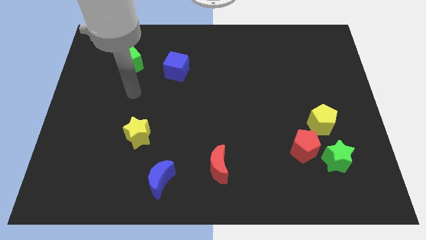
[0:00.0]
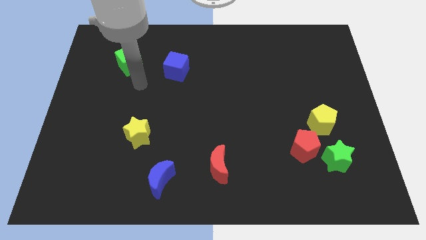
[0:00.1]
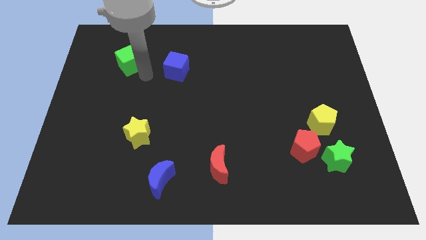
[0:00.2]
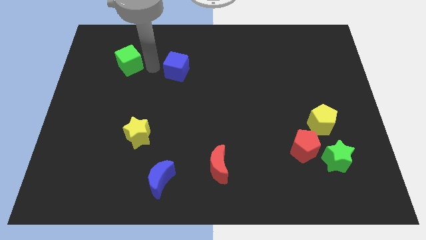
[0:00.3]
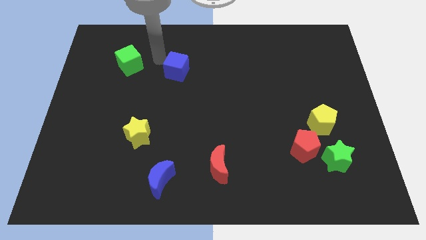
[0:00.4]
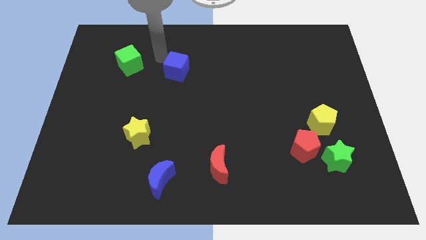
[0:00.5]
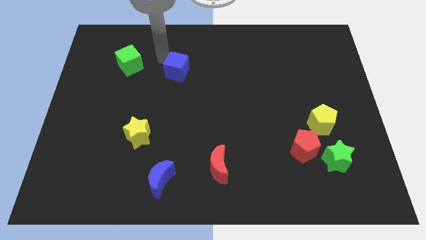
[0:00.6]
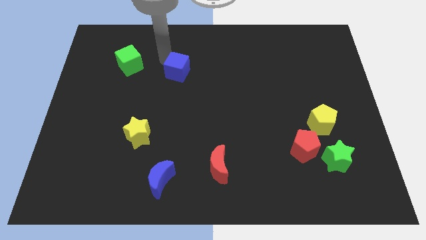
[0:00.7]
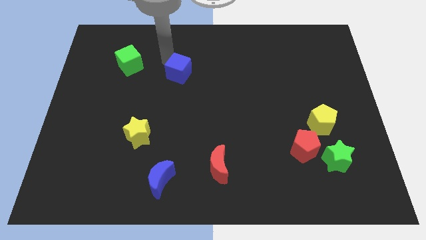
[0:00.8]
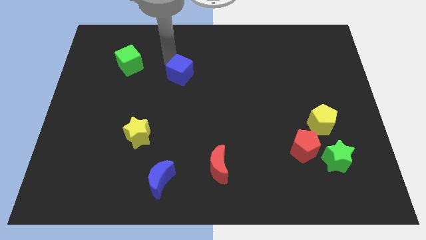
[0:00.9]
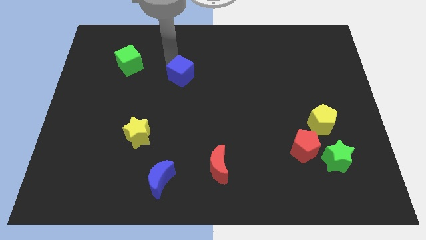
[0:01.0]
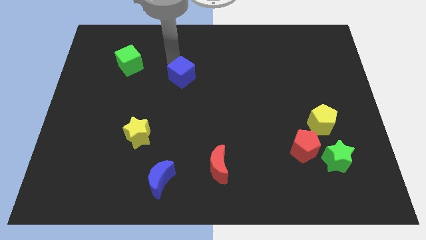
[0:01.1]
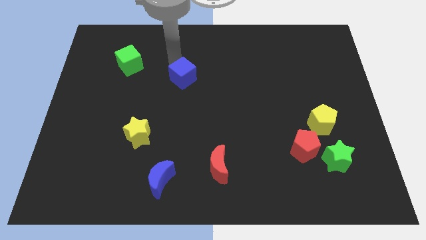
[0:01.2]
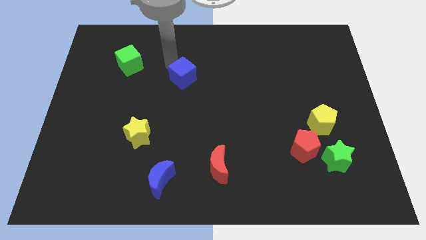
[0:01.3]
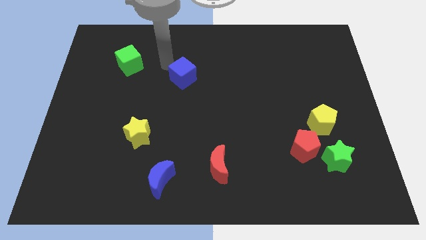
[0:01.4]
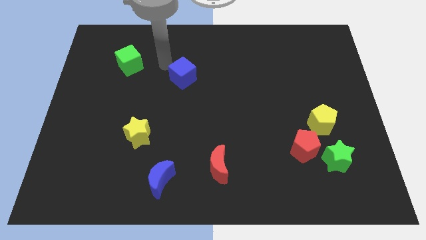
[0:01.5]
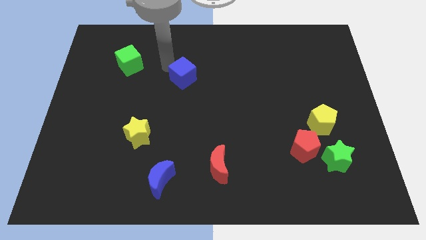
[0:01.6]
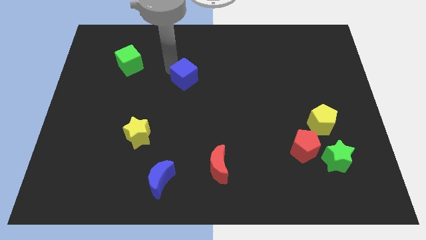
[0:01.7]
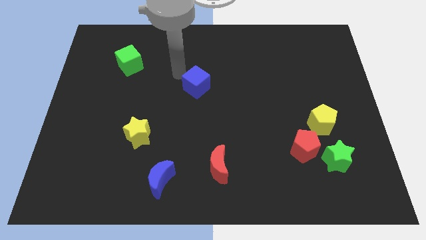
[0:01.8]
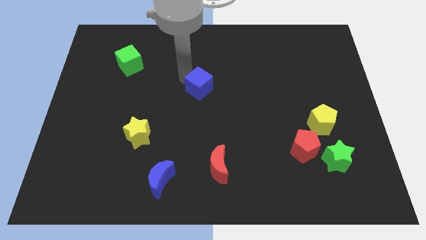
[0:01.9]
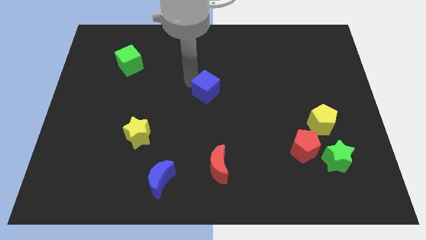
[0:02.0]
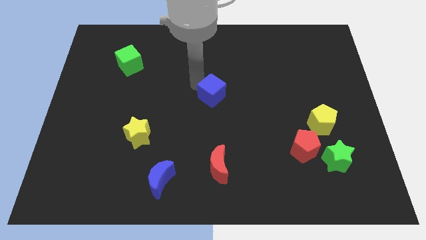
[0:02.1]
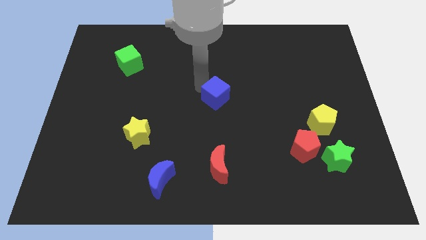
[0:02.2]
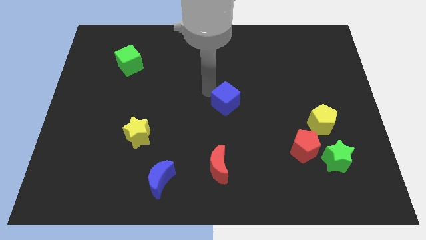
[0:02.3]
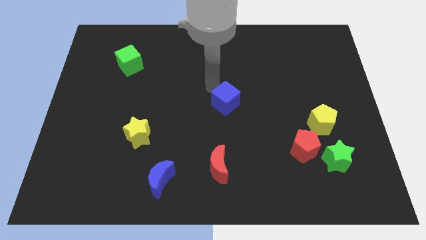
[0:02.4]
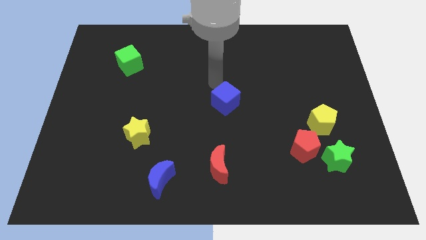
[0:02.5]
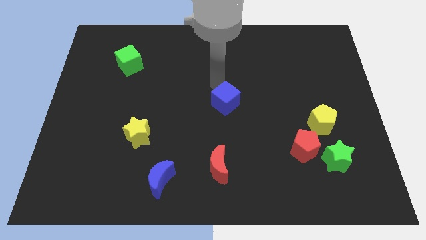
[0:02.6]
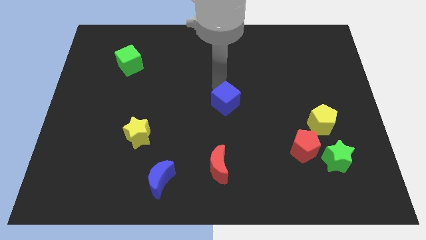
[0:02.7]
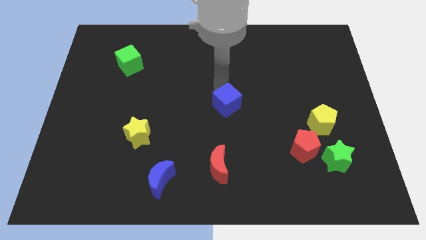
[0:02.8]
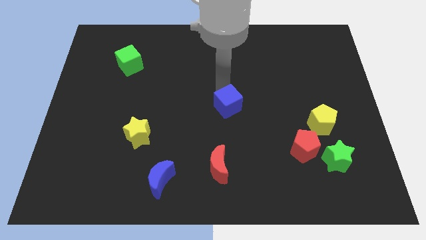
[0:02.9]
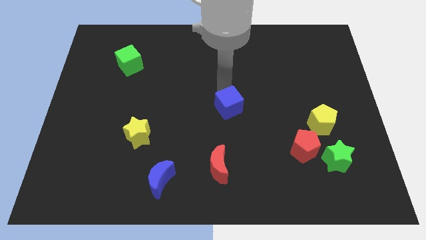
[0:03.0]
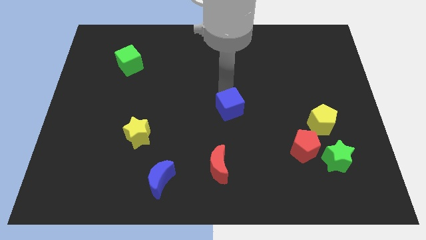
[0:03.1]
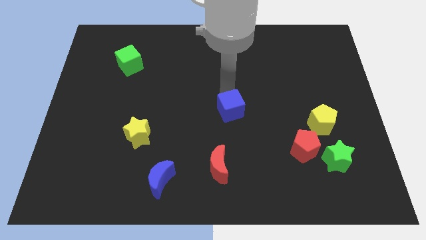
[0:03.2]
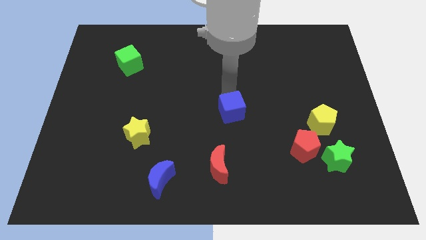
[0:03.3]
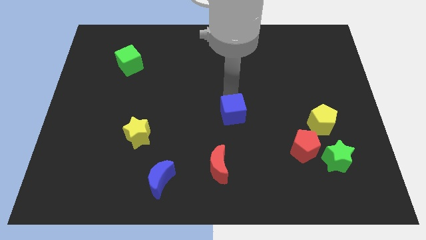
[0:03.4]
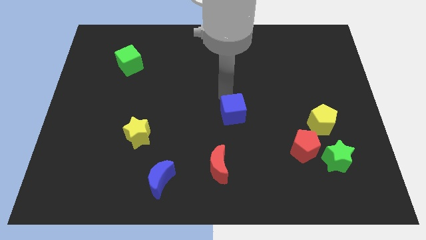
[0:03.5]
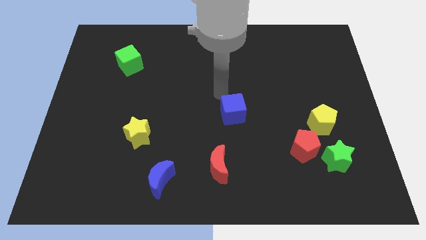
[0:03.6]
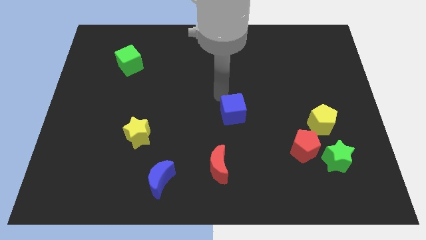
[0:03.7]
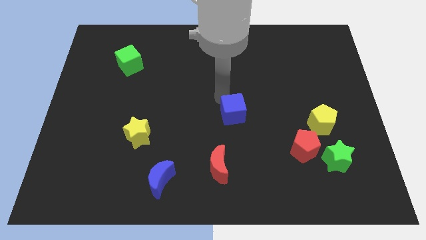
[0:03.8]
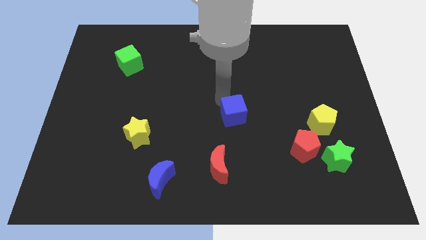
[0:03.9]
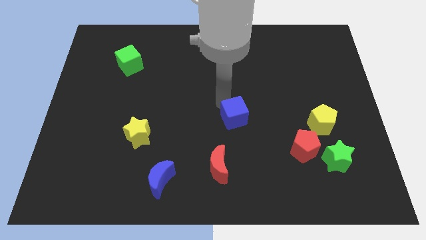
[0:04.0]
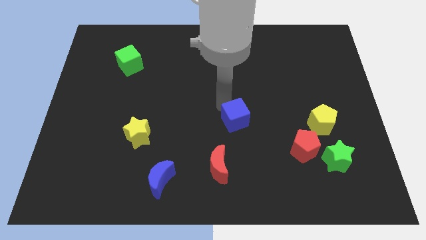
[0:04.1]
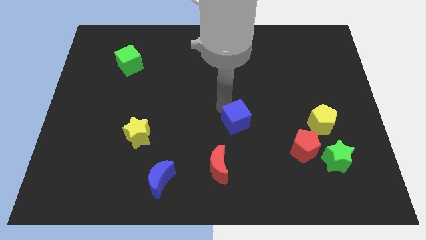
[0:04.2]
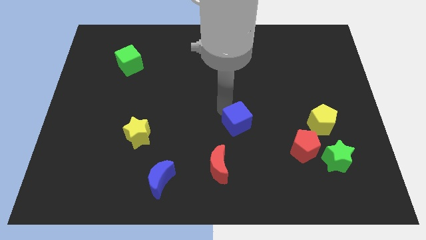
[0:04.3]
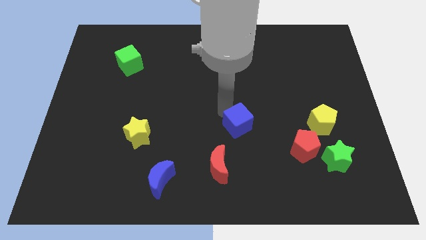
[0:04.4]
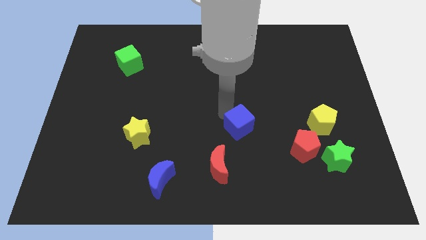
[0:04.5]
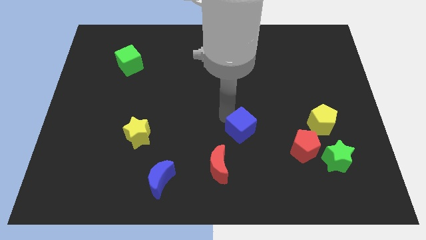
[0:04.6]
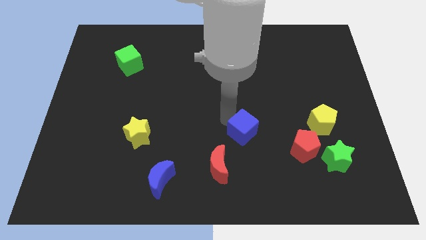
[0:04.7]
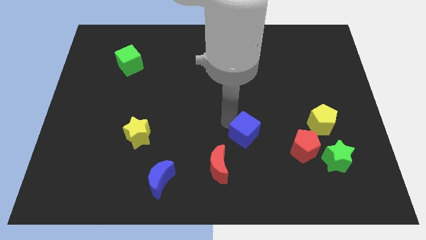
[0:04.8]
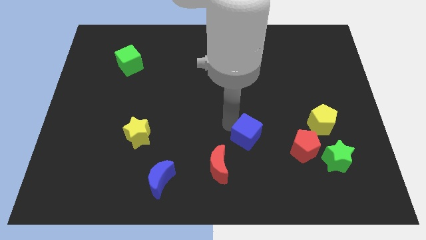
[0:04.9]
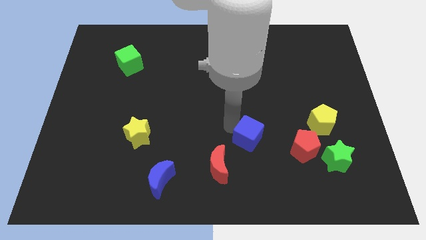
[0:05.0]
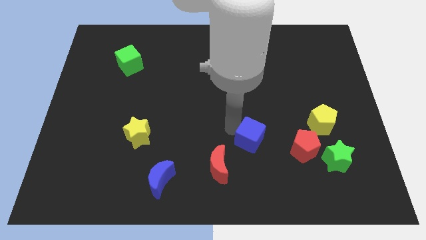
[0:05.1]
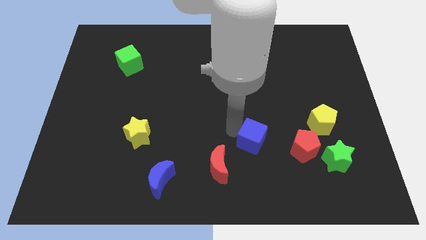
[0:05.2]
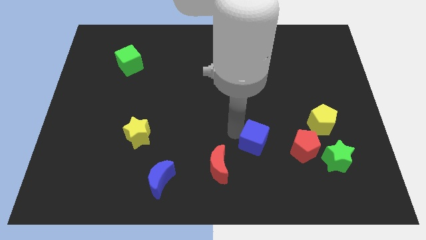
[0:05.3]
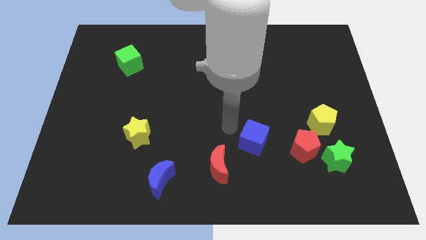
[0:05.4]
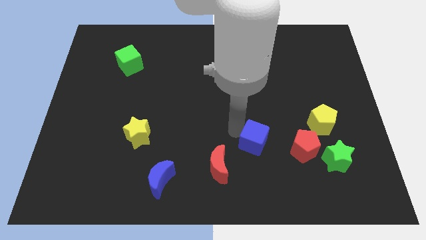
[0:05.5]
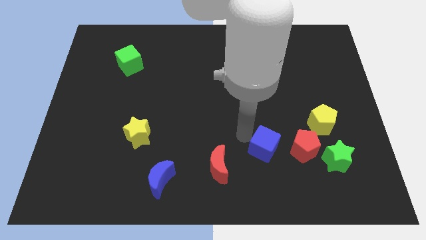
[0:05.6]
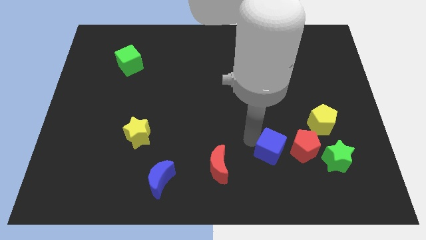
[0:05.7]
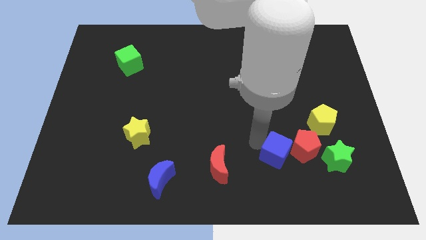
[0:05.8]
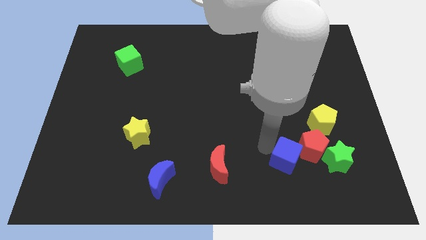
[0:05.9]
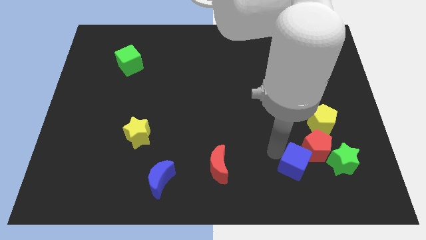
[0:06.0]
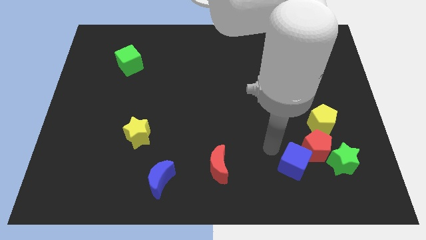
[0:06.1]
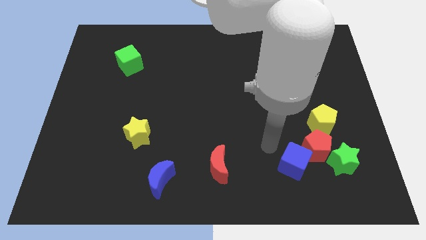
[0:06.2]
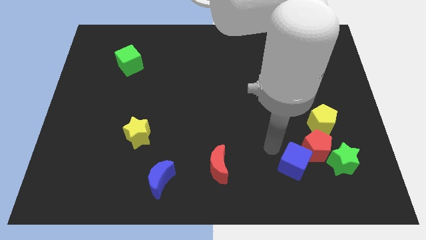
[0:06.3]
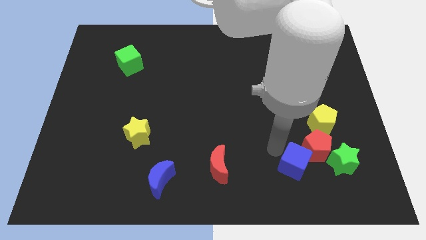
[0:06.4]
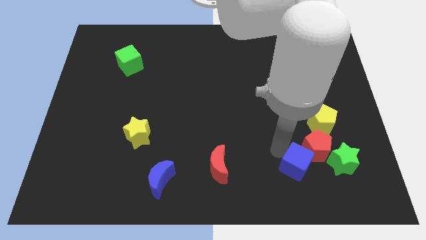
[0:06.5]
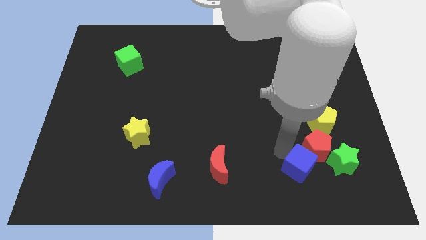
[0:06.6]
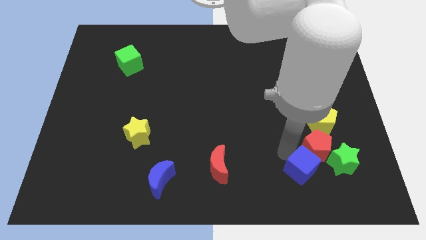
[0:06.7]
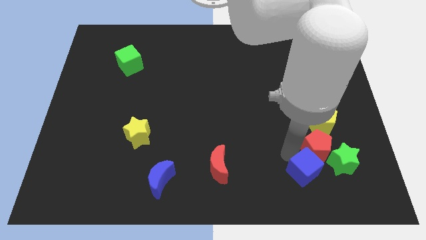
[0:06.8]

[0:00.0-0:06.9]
put the blue cube to the bottom left side of the green star

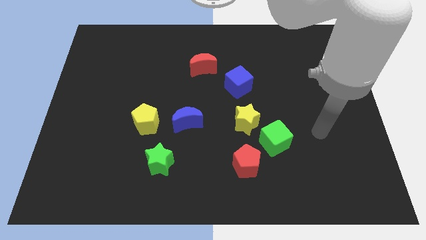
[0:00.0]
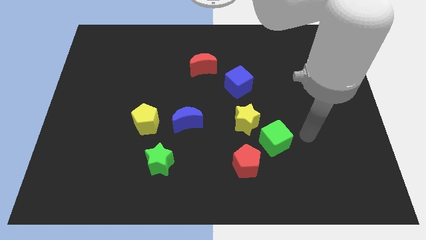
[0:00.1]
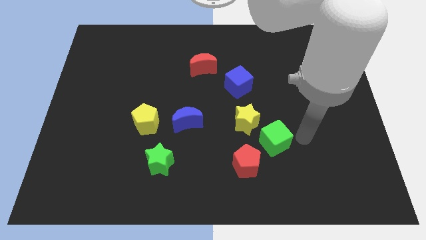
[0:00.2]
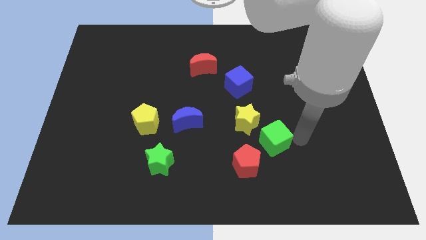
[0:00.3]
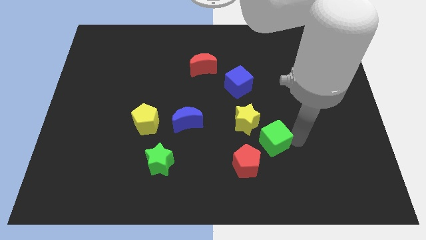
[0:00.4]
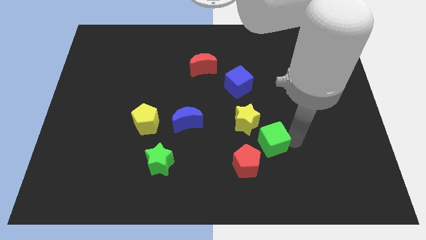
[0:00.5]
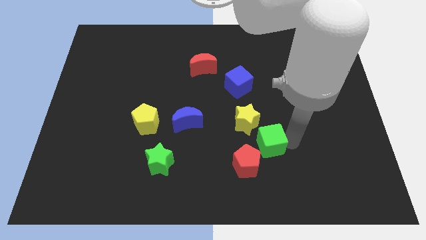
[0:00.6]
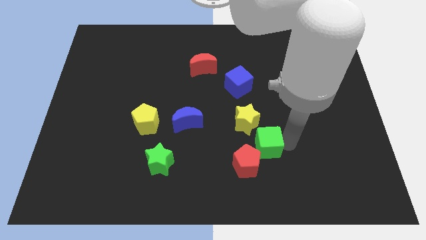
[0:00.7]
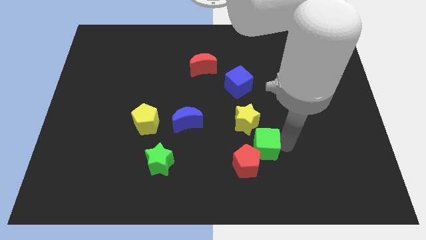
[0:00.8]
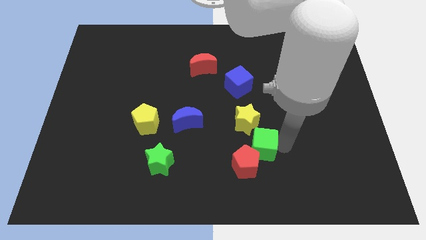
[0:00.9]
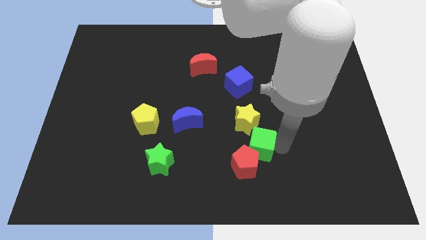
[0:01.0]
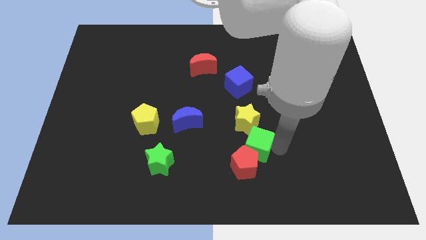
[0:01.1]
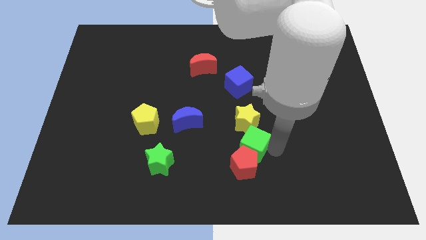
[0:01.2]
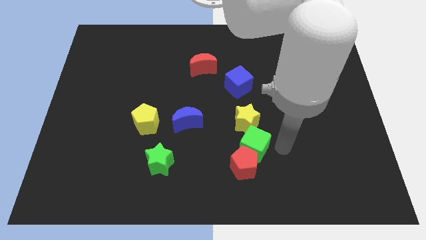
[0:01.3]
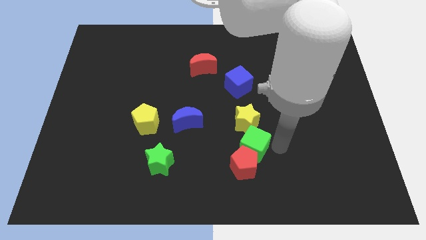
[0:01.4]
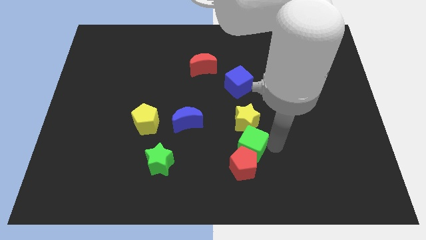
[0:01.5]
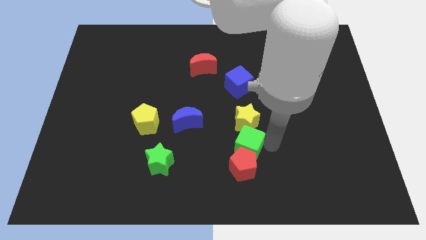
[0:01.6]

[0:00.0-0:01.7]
move the green cube to the top left of the red pentagon
